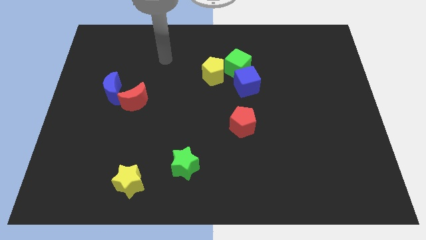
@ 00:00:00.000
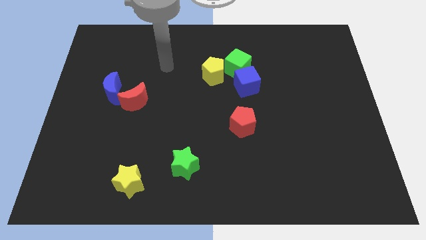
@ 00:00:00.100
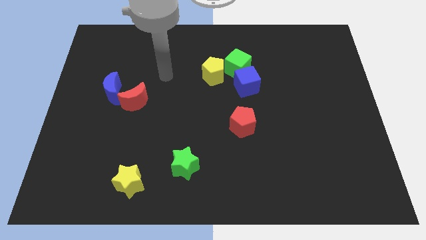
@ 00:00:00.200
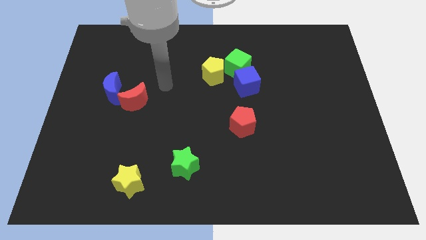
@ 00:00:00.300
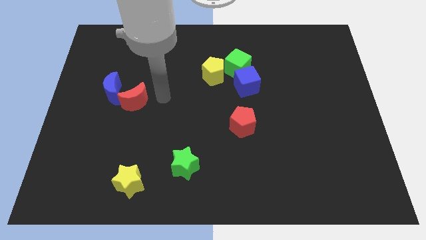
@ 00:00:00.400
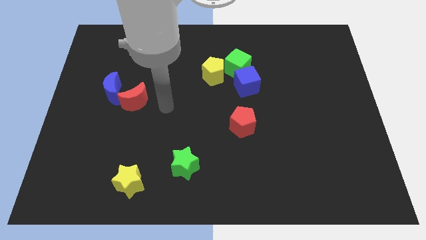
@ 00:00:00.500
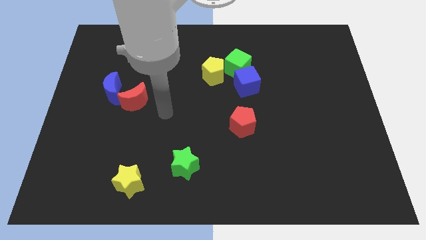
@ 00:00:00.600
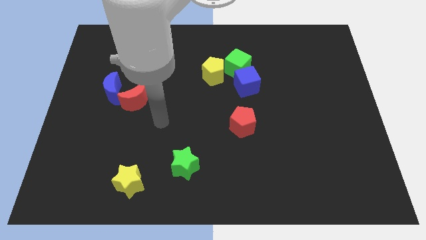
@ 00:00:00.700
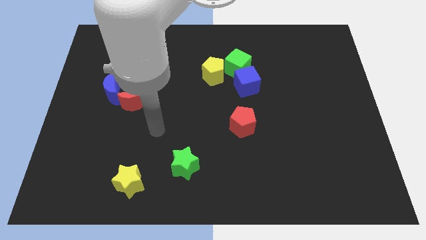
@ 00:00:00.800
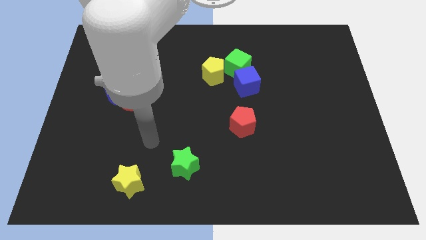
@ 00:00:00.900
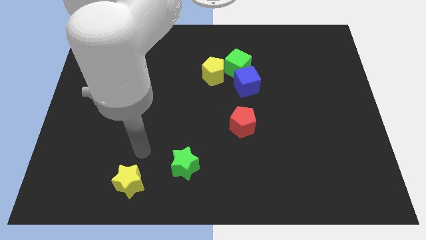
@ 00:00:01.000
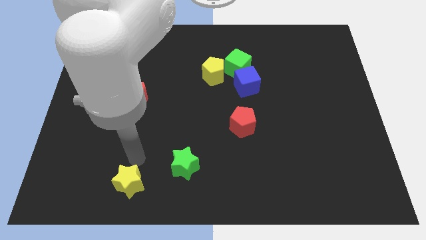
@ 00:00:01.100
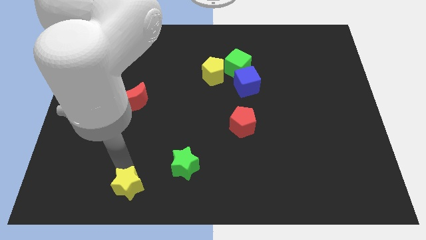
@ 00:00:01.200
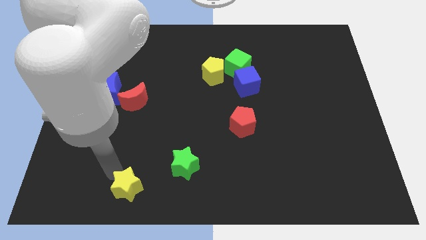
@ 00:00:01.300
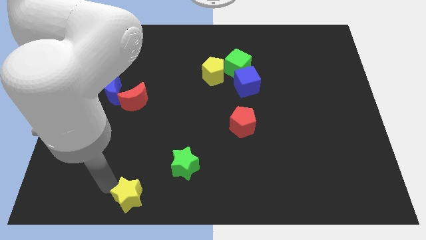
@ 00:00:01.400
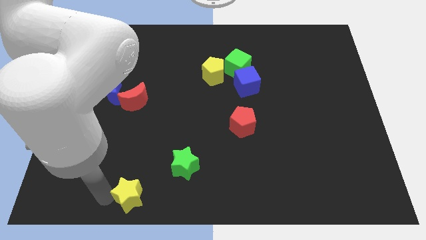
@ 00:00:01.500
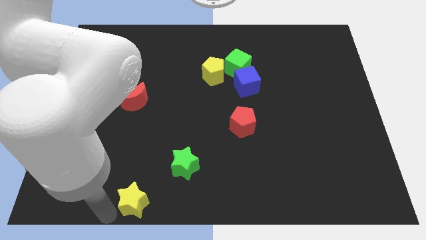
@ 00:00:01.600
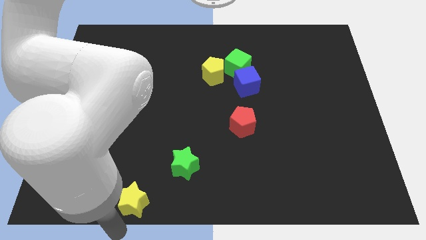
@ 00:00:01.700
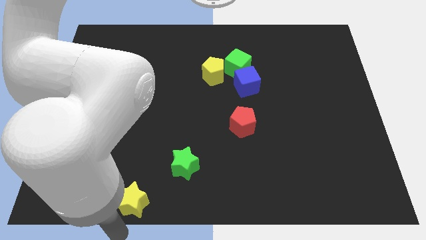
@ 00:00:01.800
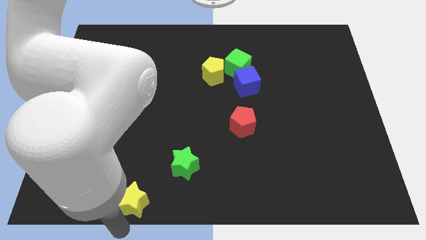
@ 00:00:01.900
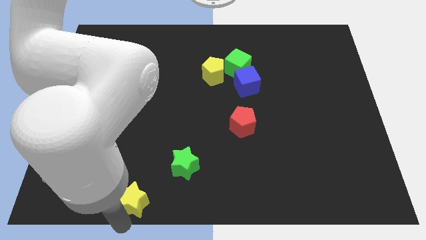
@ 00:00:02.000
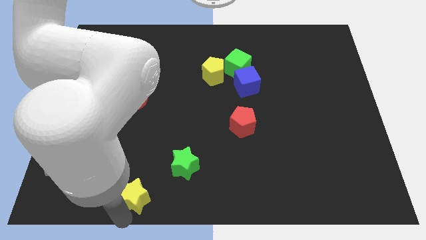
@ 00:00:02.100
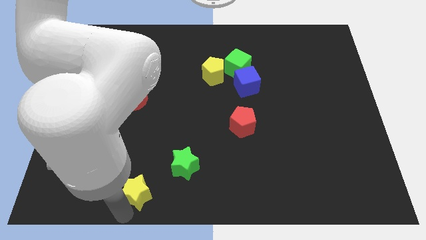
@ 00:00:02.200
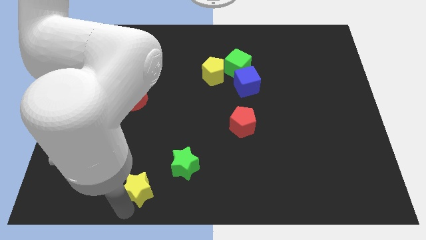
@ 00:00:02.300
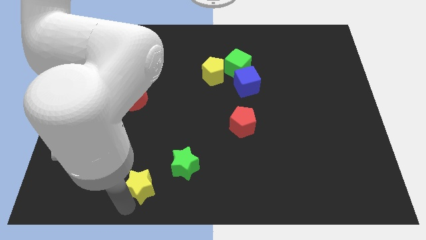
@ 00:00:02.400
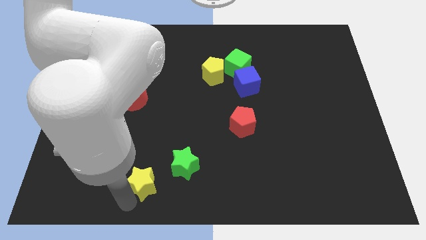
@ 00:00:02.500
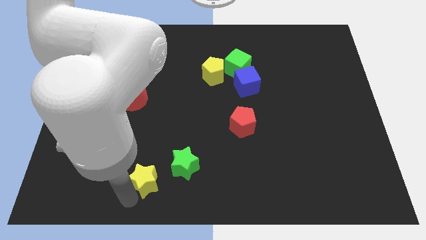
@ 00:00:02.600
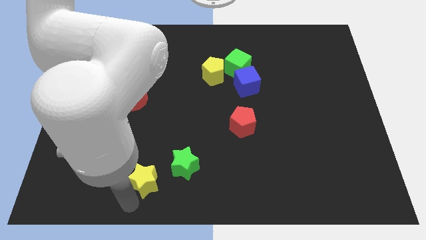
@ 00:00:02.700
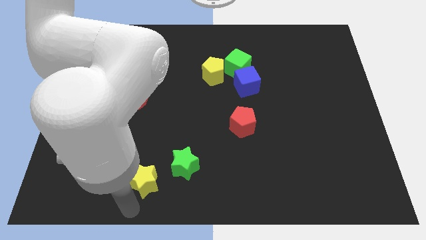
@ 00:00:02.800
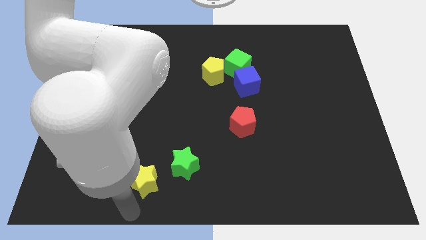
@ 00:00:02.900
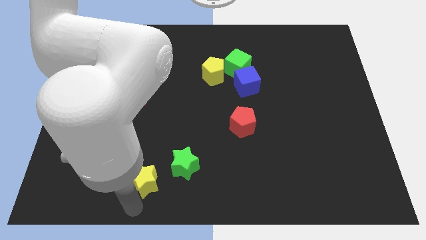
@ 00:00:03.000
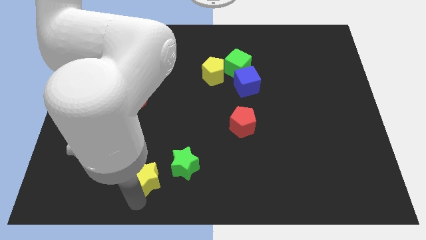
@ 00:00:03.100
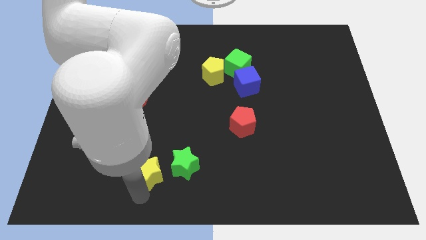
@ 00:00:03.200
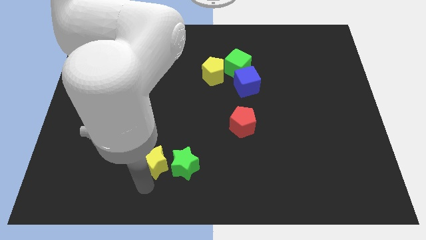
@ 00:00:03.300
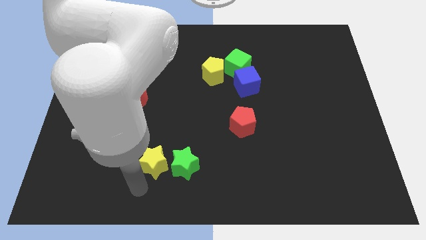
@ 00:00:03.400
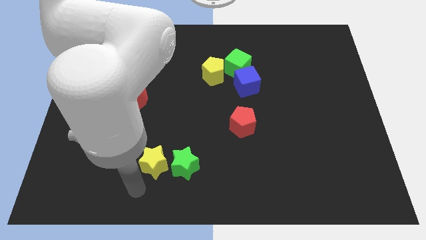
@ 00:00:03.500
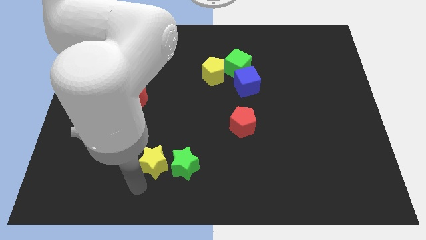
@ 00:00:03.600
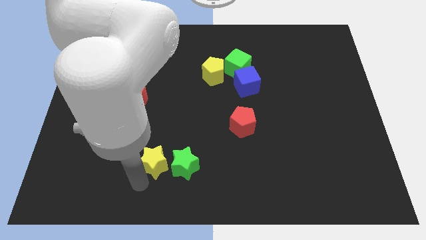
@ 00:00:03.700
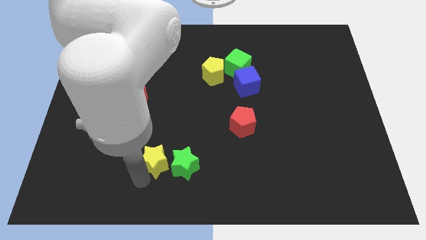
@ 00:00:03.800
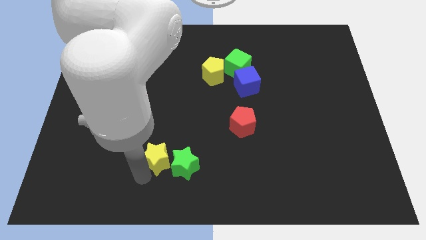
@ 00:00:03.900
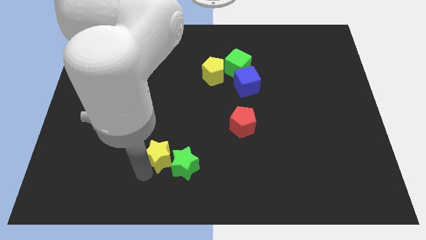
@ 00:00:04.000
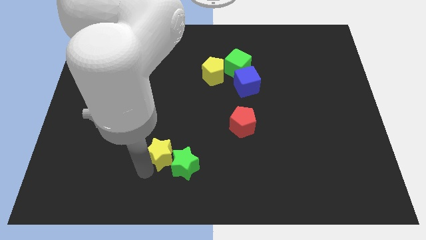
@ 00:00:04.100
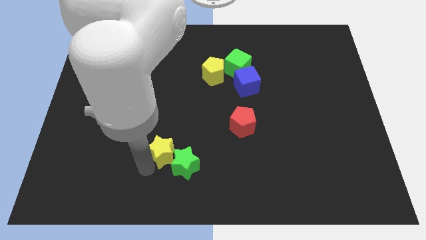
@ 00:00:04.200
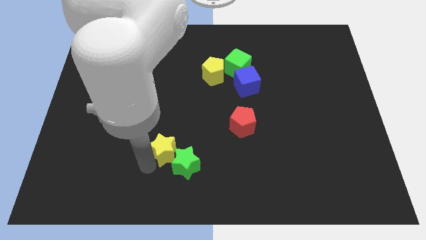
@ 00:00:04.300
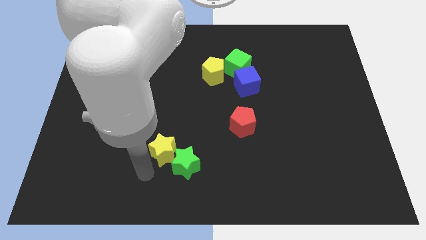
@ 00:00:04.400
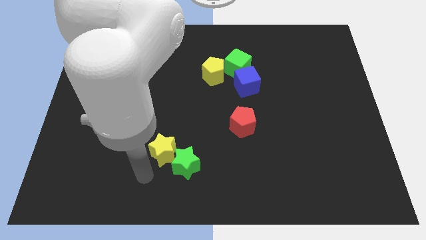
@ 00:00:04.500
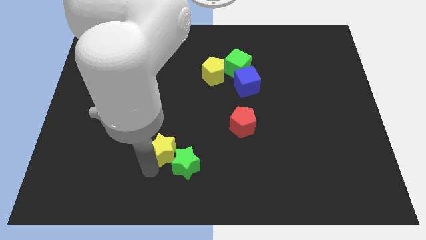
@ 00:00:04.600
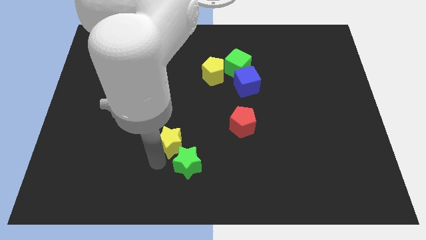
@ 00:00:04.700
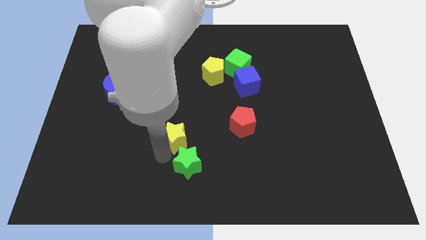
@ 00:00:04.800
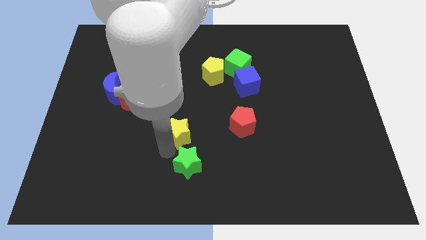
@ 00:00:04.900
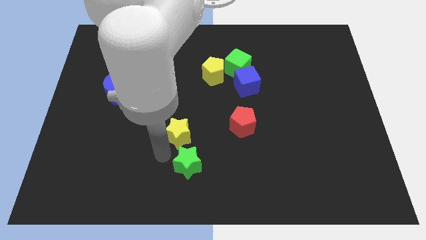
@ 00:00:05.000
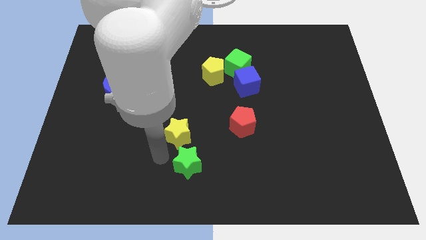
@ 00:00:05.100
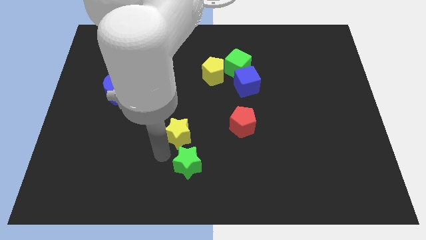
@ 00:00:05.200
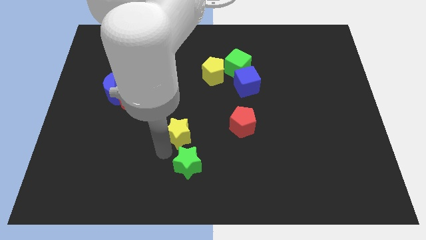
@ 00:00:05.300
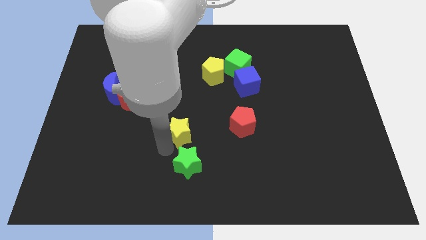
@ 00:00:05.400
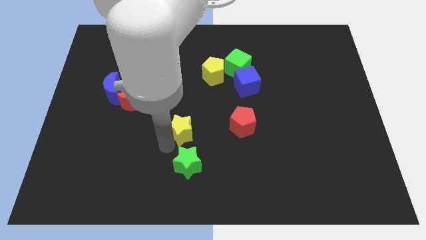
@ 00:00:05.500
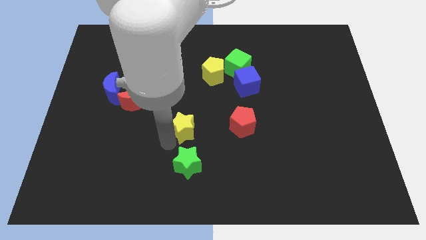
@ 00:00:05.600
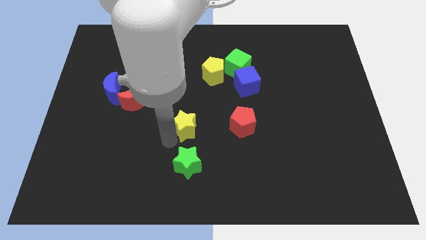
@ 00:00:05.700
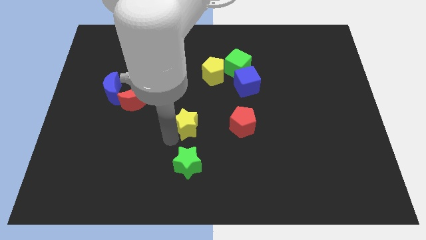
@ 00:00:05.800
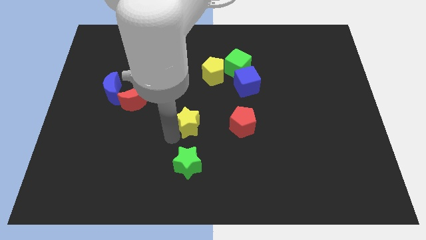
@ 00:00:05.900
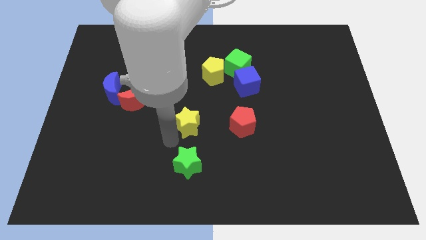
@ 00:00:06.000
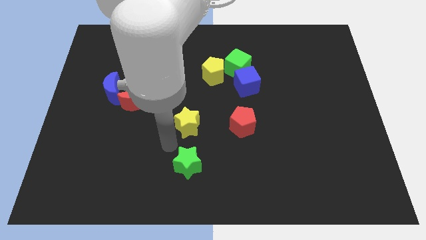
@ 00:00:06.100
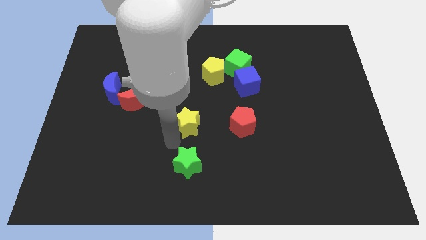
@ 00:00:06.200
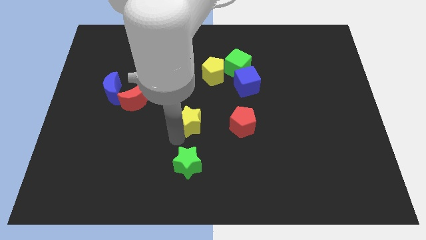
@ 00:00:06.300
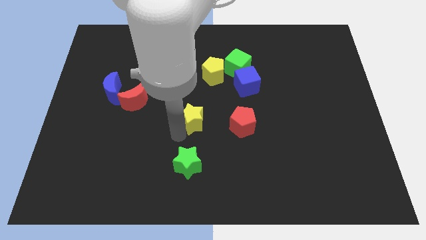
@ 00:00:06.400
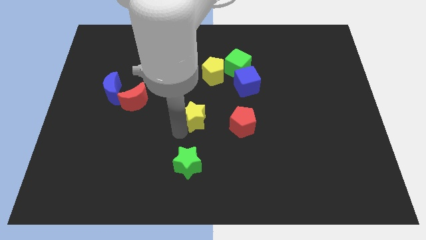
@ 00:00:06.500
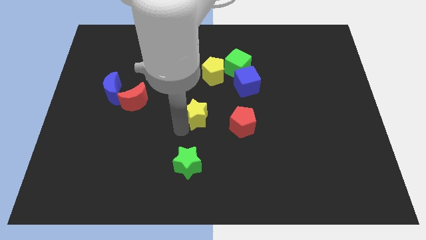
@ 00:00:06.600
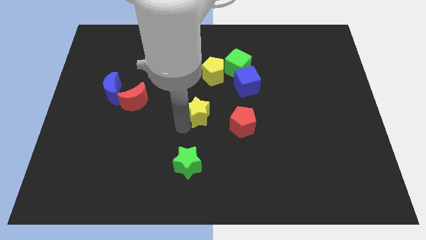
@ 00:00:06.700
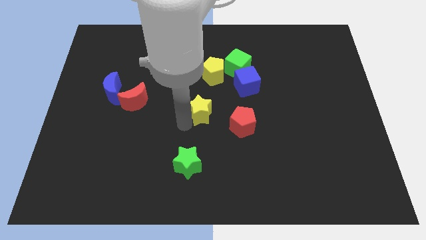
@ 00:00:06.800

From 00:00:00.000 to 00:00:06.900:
push the yellow star to the top left of the red pentagon

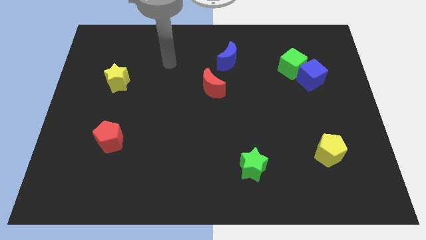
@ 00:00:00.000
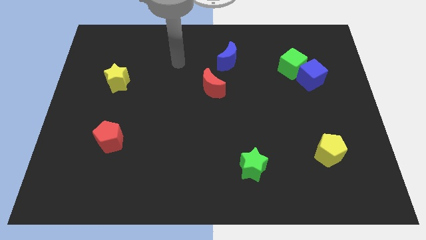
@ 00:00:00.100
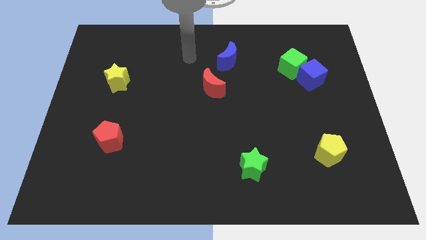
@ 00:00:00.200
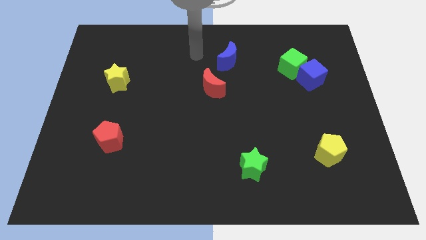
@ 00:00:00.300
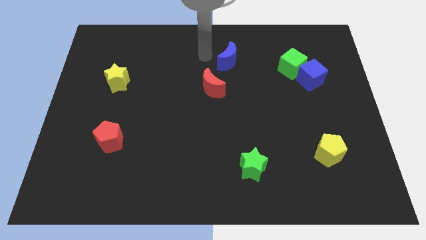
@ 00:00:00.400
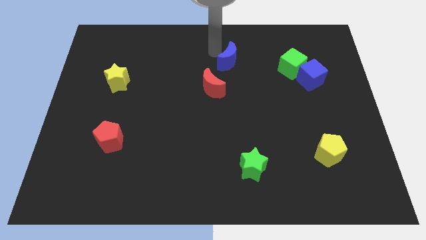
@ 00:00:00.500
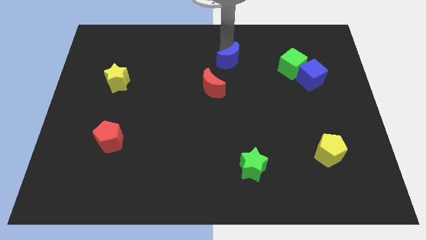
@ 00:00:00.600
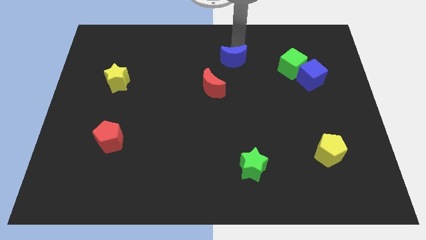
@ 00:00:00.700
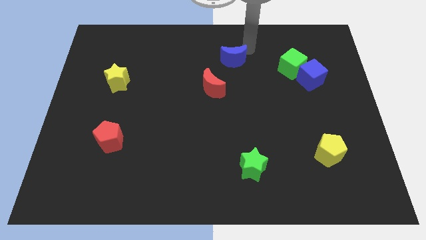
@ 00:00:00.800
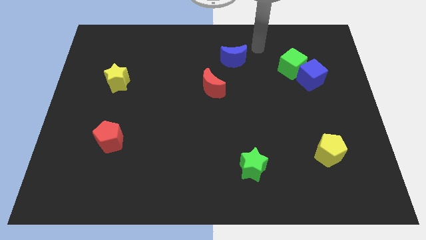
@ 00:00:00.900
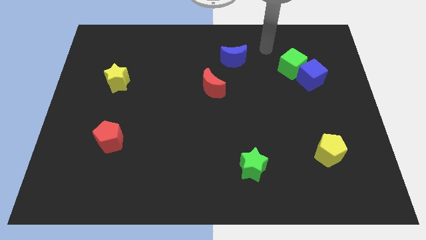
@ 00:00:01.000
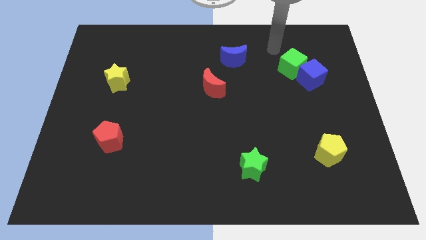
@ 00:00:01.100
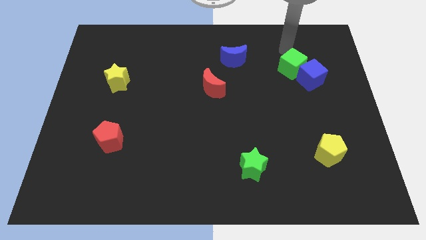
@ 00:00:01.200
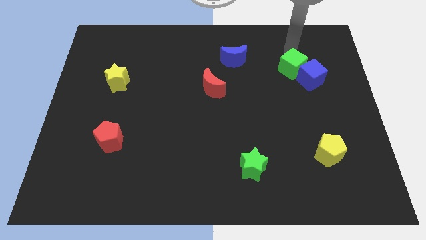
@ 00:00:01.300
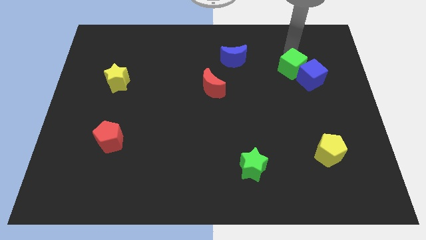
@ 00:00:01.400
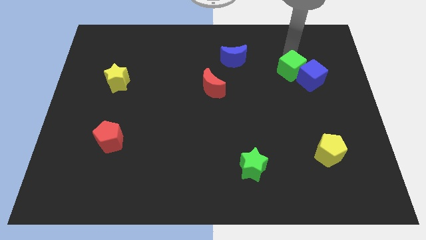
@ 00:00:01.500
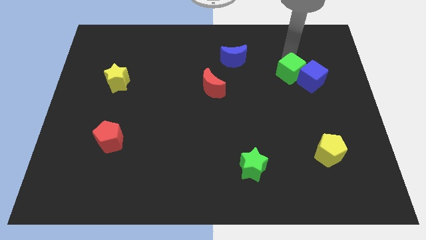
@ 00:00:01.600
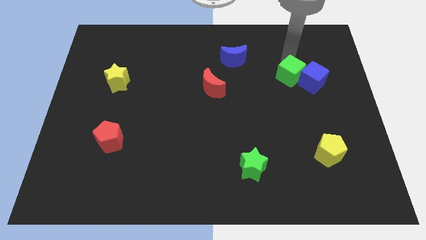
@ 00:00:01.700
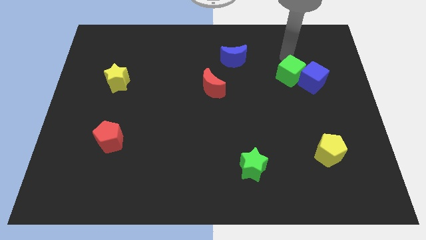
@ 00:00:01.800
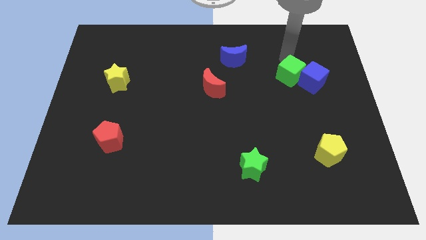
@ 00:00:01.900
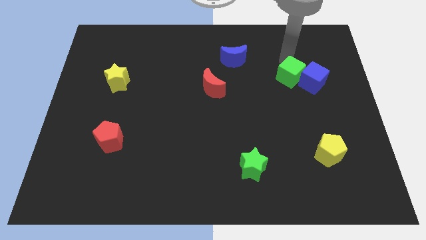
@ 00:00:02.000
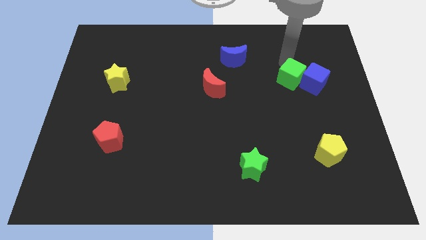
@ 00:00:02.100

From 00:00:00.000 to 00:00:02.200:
push the green cube diagonally down and to the left of the blue cube
